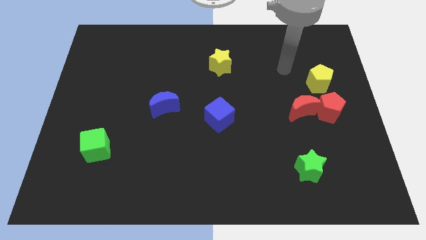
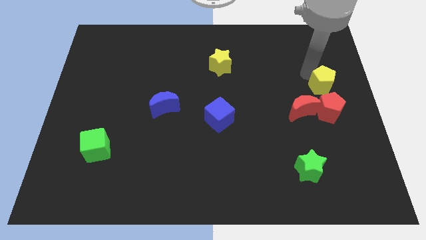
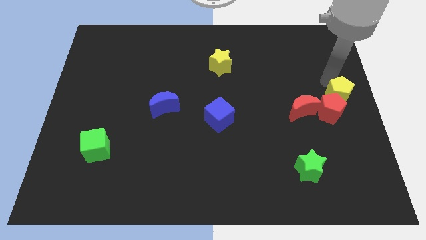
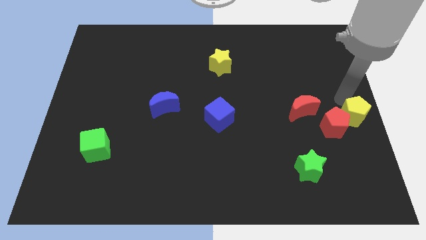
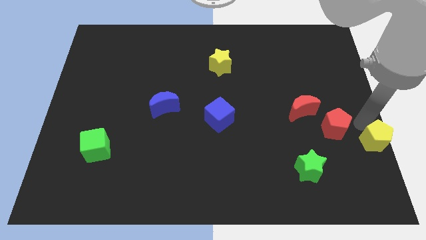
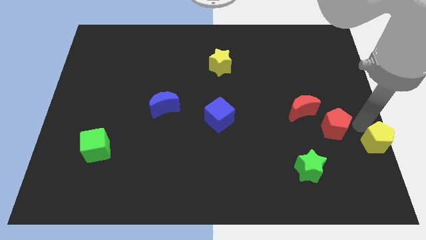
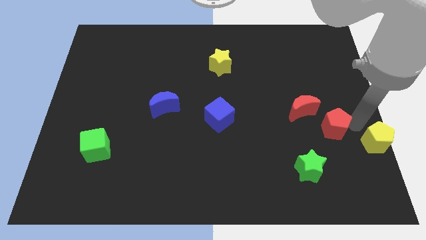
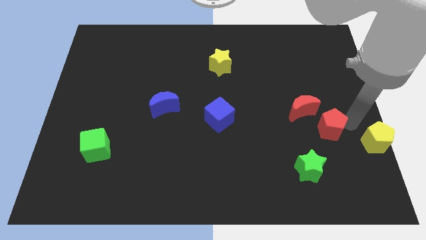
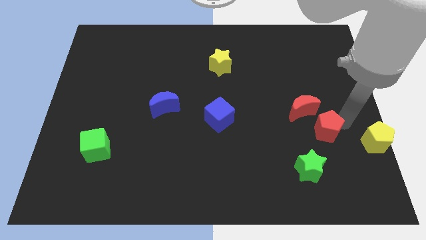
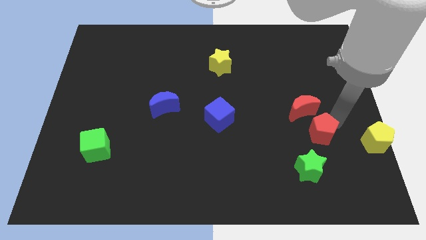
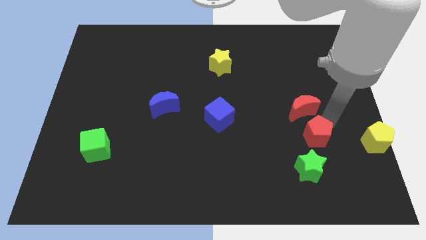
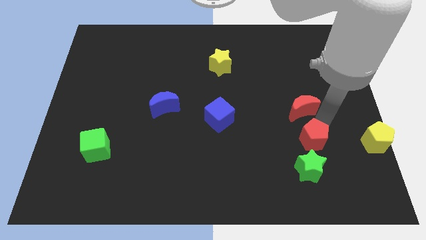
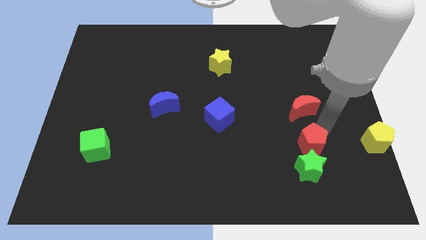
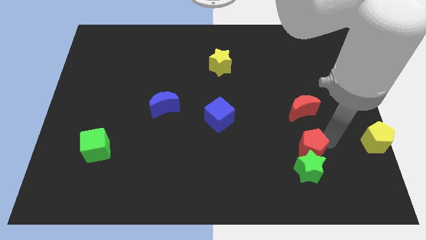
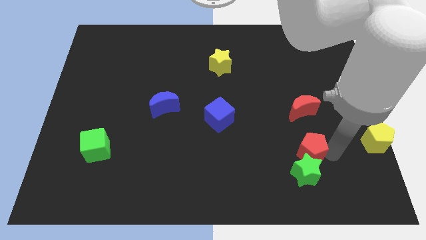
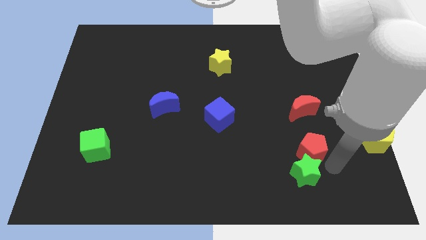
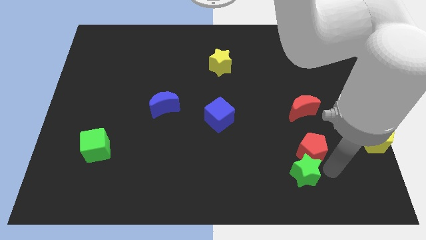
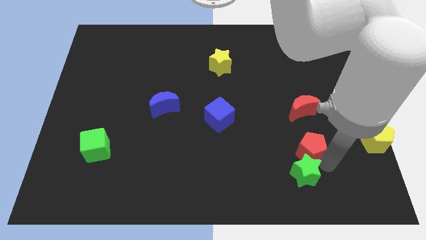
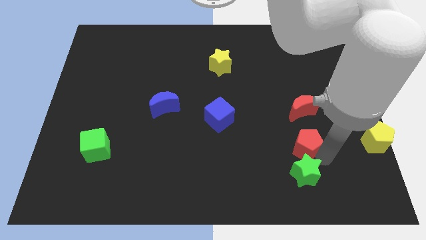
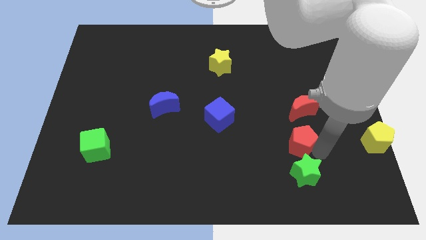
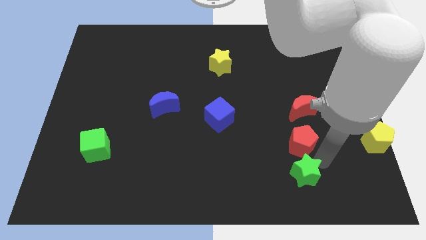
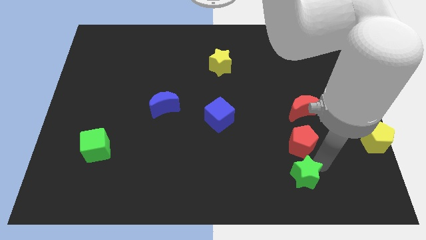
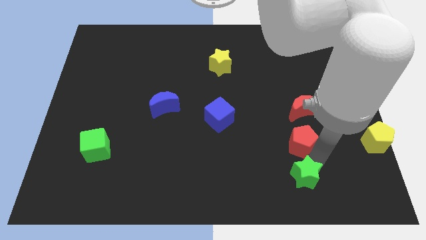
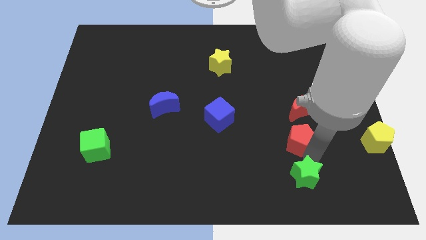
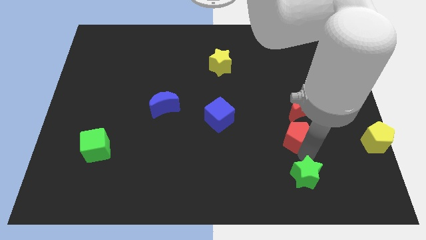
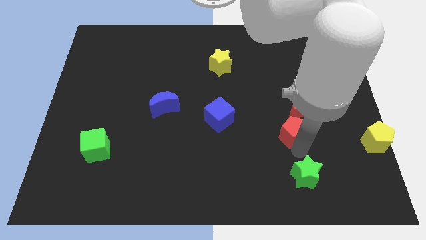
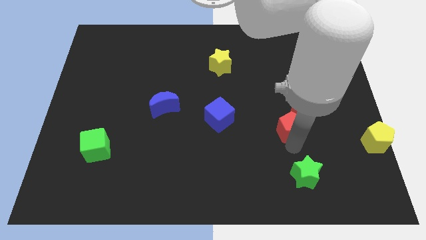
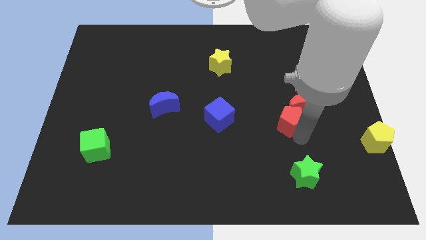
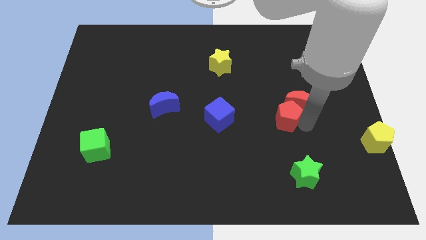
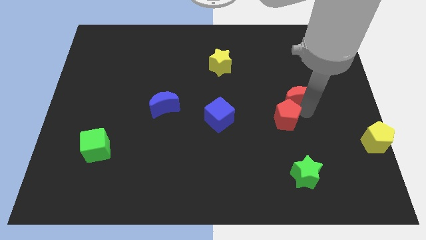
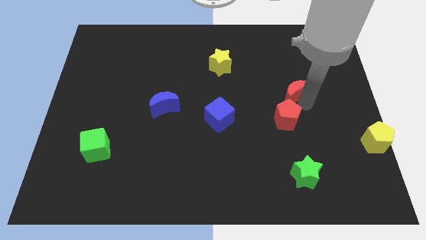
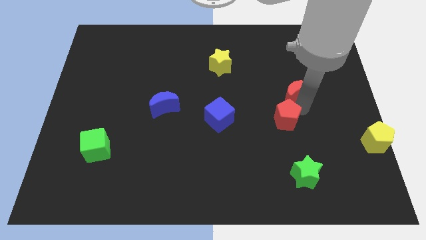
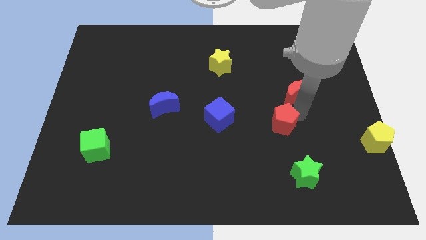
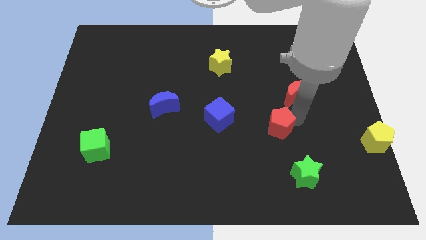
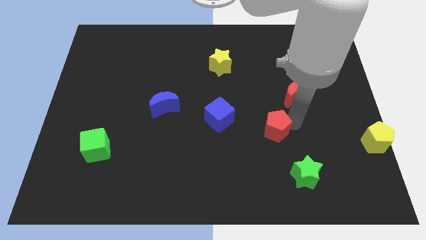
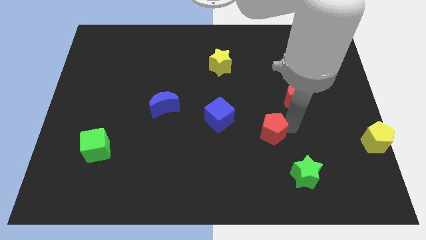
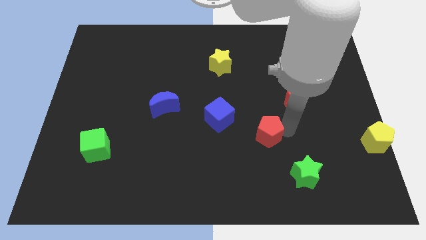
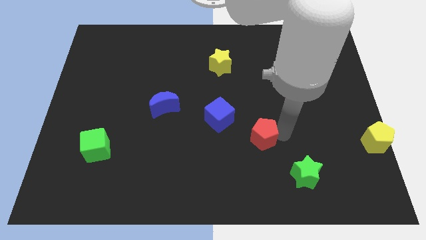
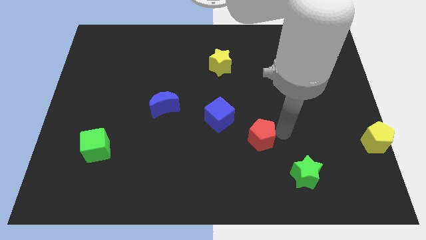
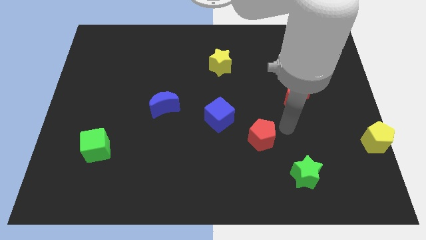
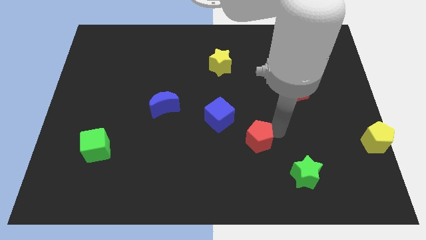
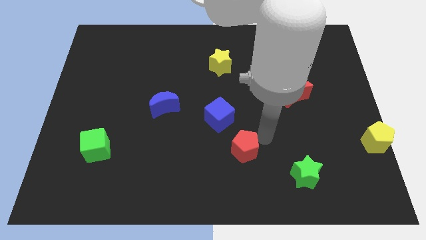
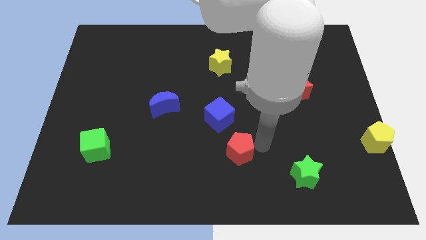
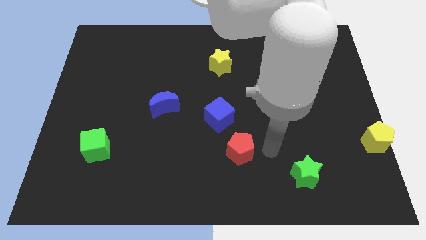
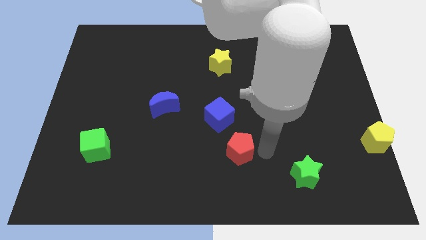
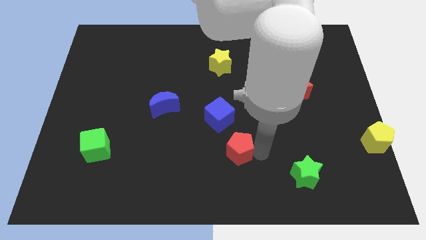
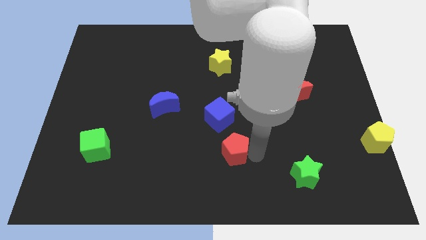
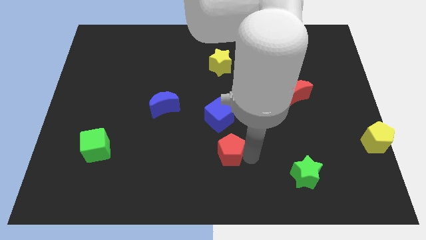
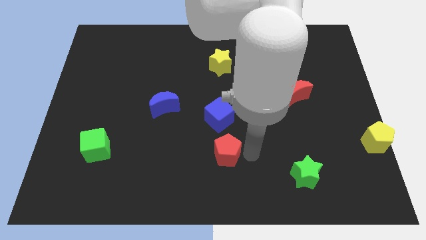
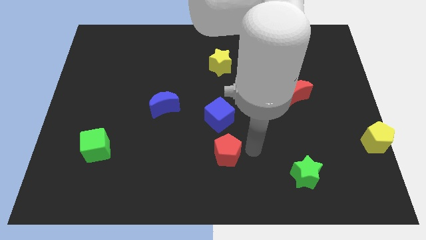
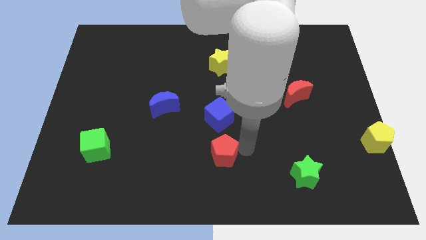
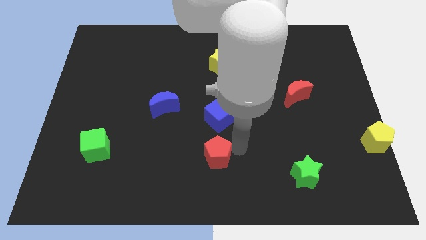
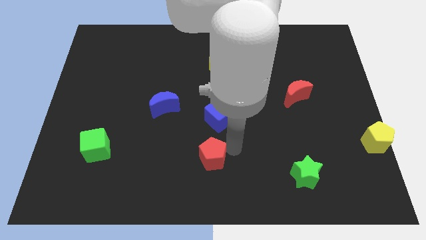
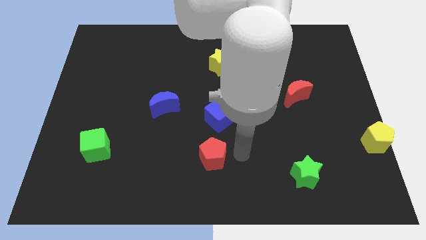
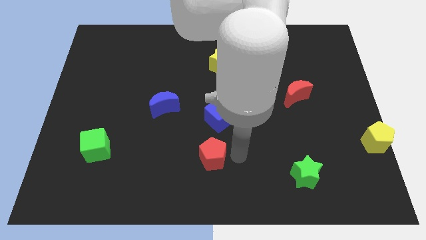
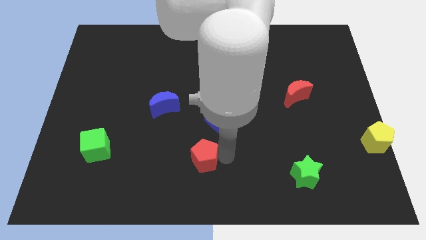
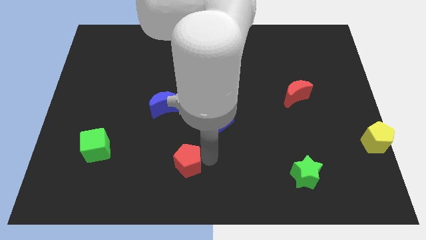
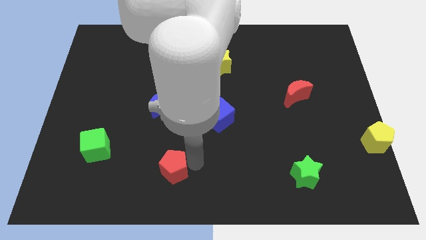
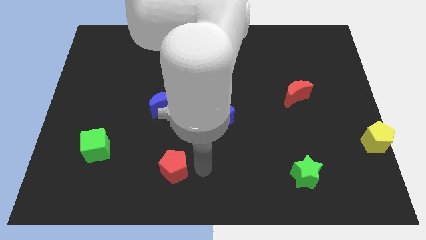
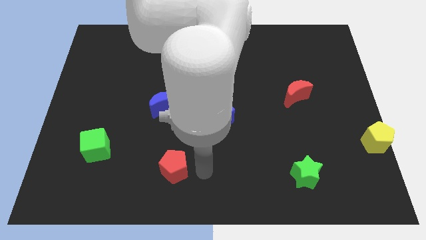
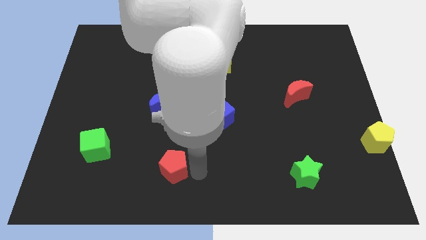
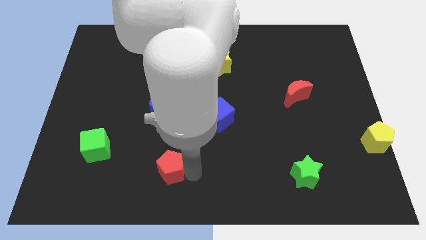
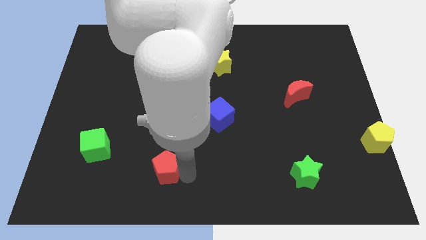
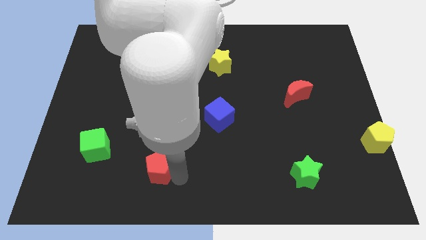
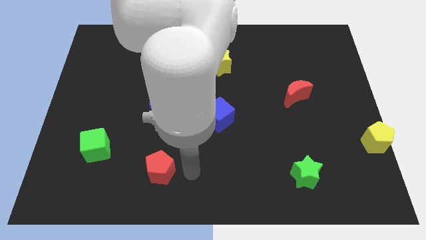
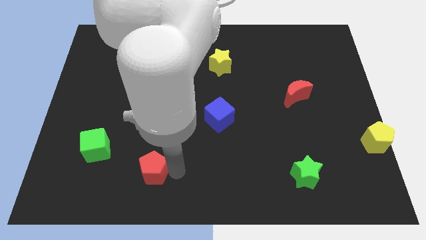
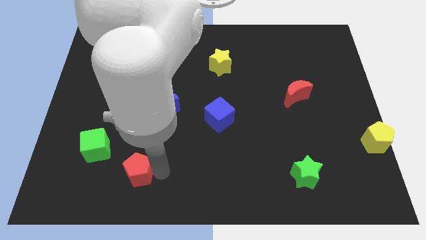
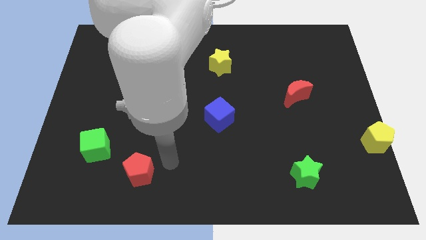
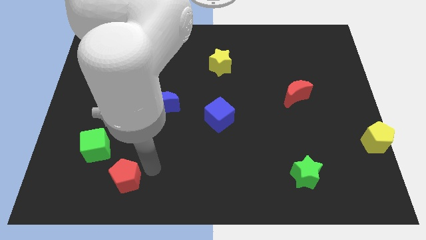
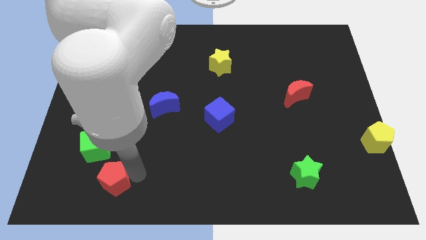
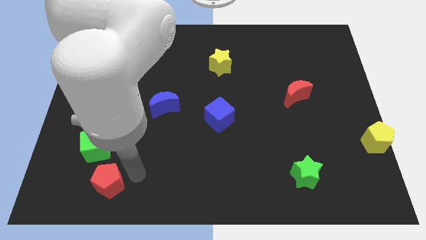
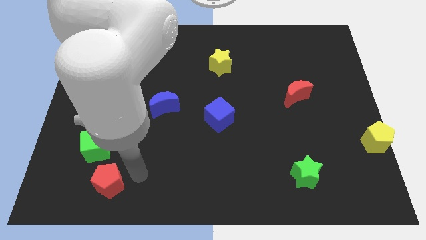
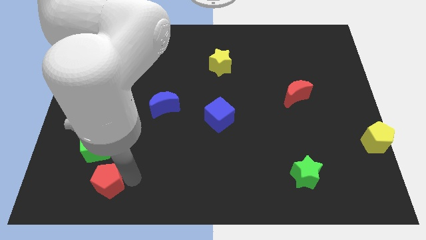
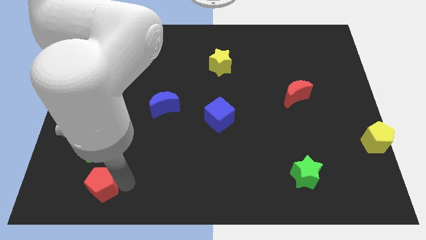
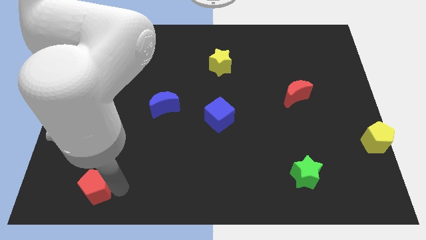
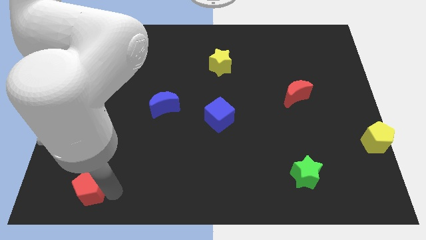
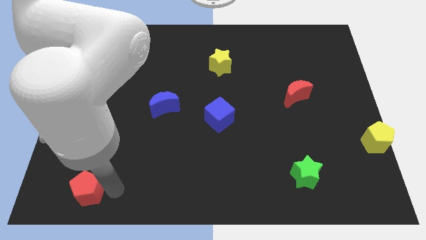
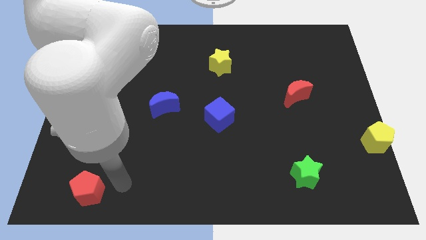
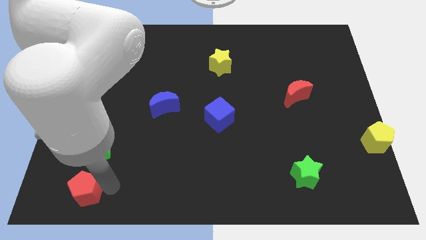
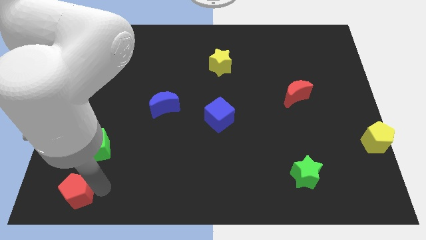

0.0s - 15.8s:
push the red pentagon to the lower left corner
